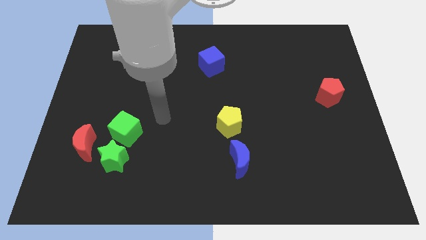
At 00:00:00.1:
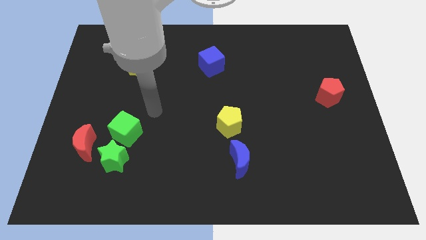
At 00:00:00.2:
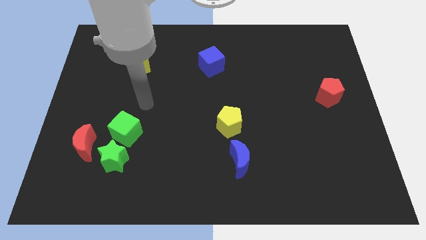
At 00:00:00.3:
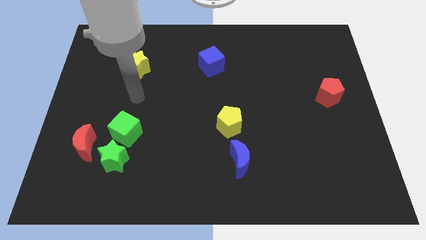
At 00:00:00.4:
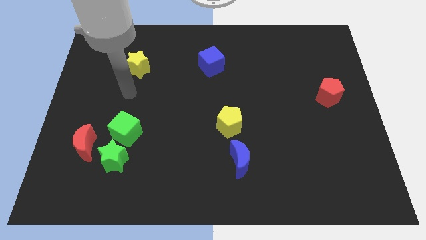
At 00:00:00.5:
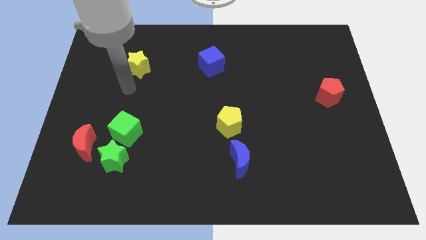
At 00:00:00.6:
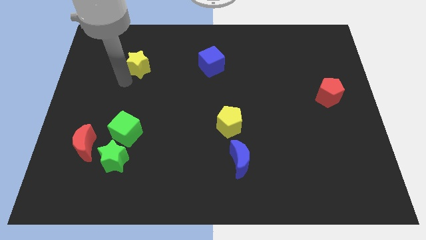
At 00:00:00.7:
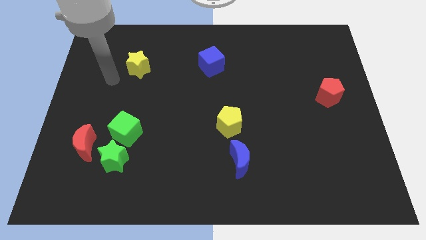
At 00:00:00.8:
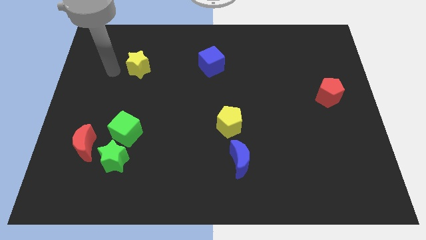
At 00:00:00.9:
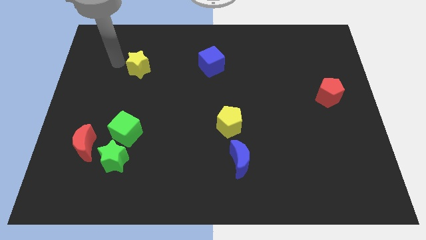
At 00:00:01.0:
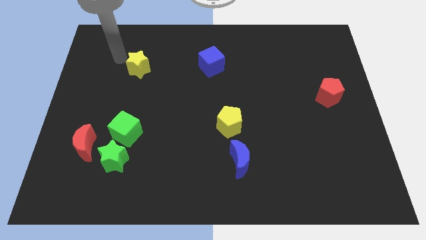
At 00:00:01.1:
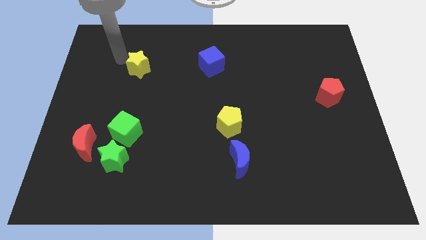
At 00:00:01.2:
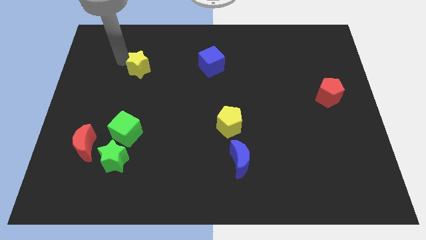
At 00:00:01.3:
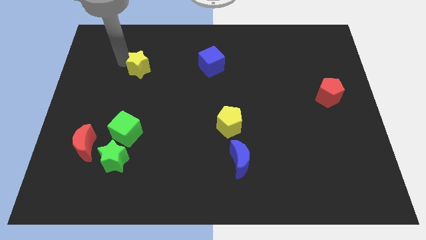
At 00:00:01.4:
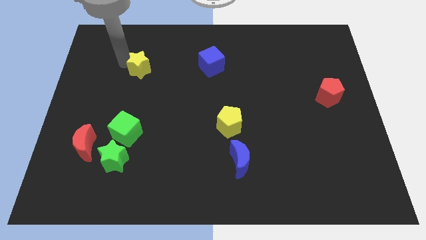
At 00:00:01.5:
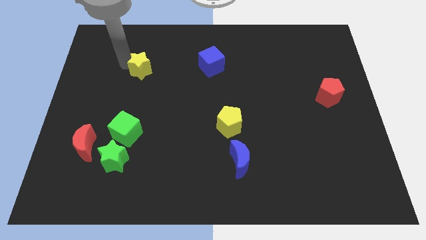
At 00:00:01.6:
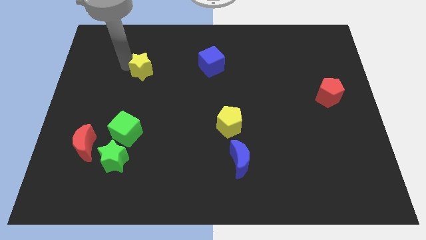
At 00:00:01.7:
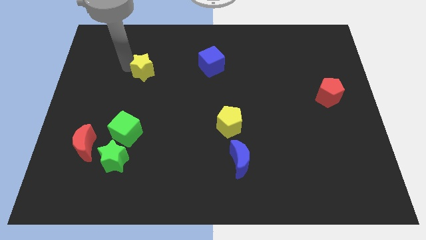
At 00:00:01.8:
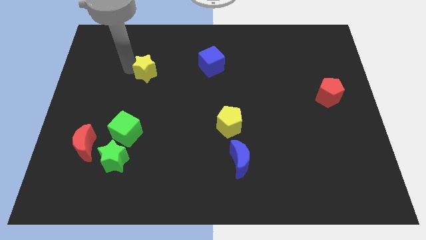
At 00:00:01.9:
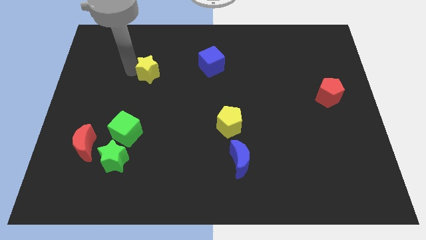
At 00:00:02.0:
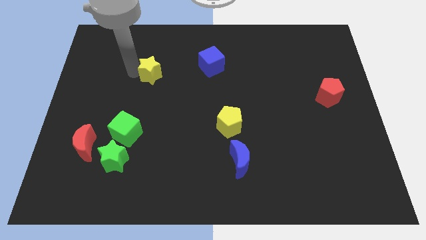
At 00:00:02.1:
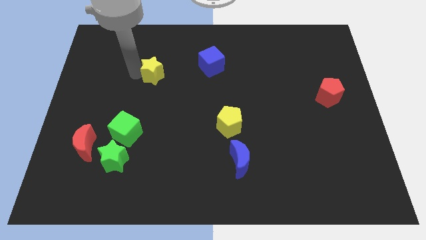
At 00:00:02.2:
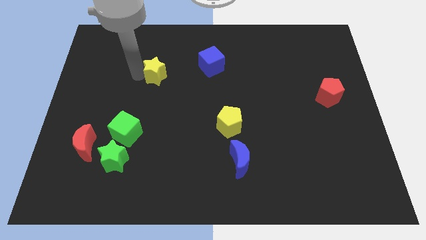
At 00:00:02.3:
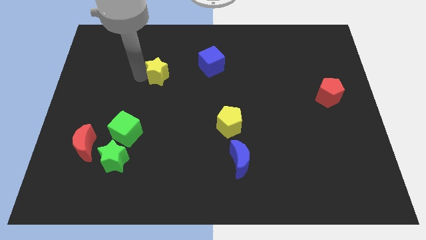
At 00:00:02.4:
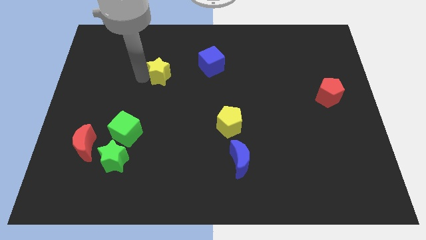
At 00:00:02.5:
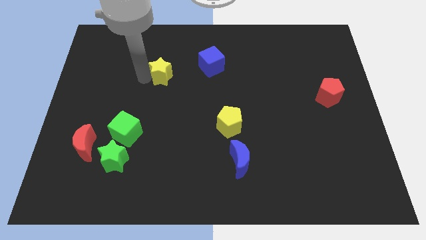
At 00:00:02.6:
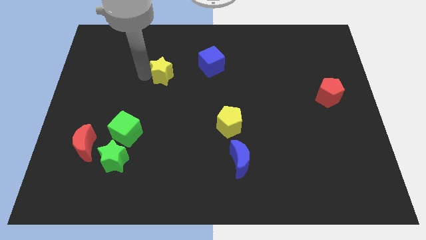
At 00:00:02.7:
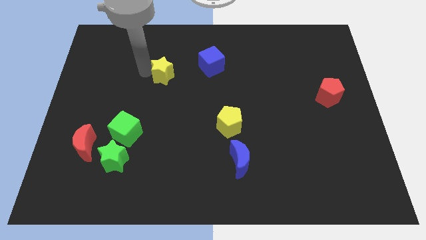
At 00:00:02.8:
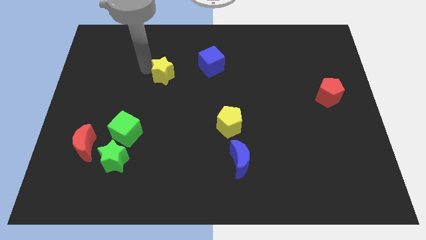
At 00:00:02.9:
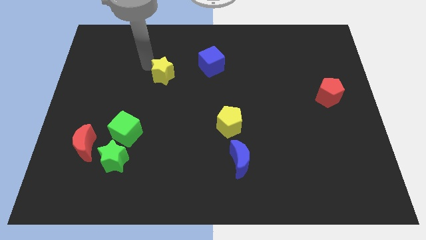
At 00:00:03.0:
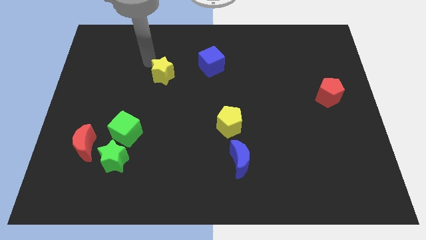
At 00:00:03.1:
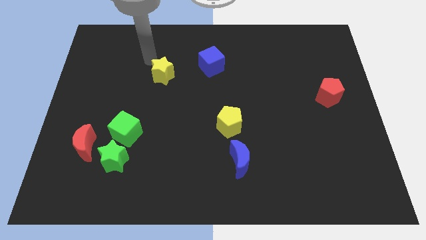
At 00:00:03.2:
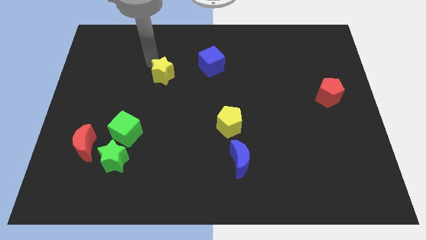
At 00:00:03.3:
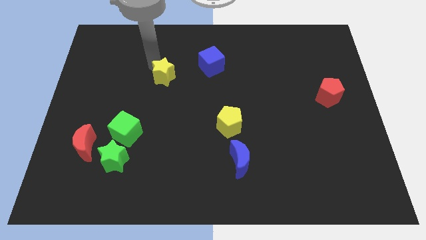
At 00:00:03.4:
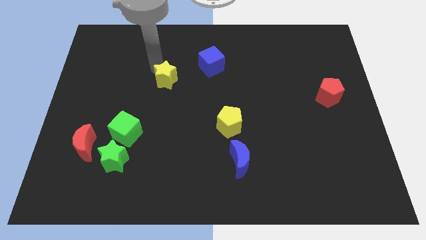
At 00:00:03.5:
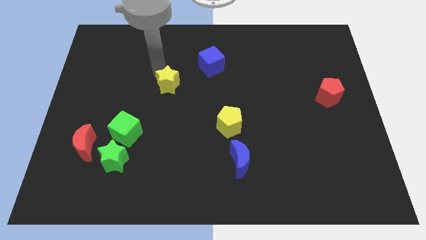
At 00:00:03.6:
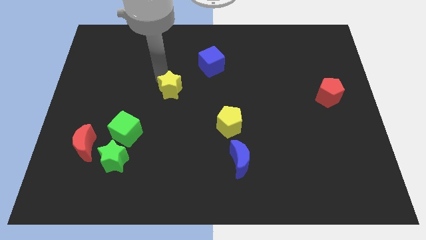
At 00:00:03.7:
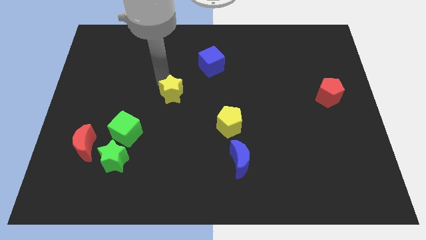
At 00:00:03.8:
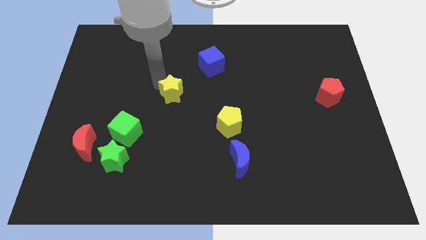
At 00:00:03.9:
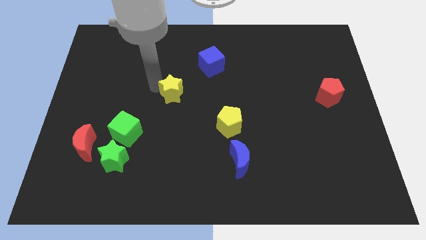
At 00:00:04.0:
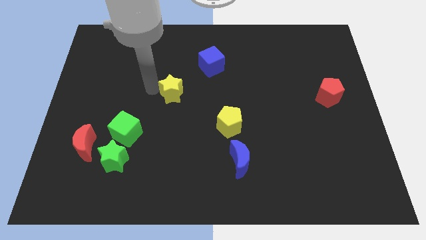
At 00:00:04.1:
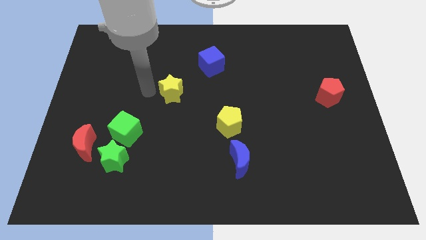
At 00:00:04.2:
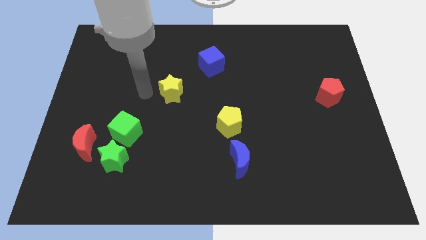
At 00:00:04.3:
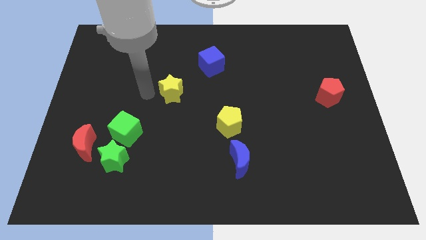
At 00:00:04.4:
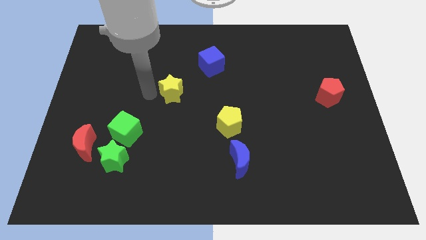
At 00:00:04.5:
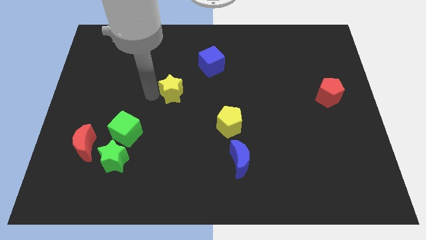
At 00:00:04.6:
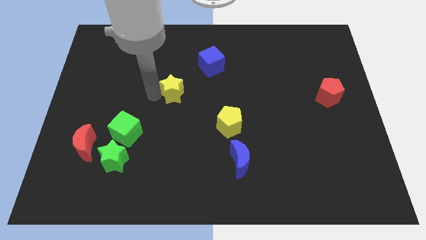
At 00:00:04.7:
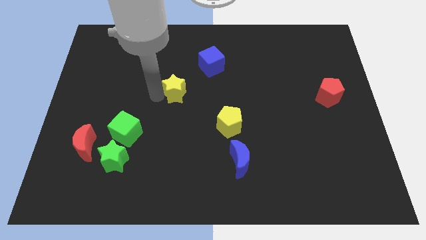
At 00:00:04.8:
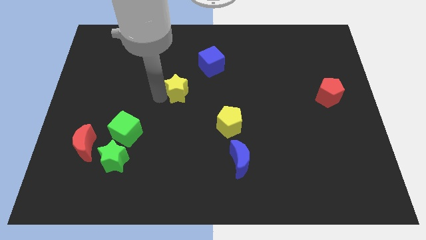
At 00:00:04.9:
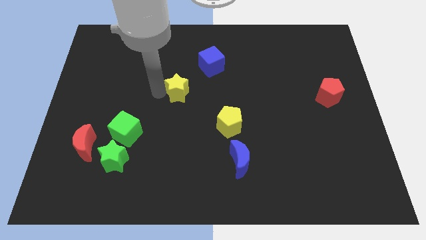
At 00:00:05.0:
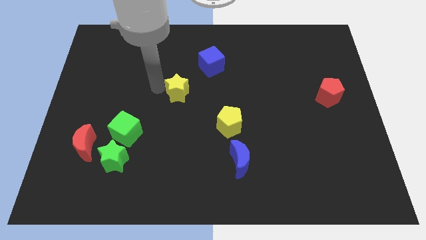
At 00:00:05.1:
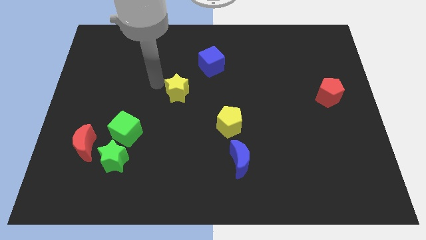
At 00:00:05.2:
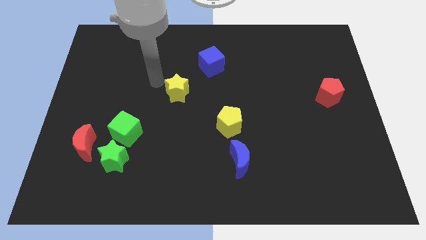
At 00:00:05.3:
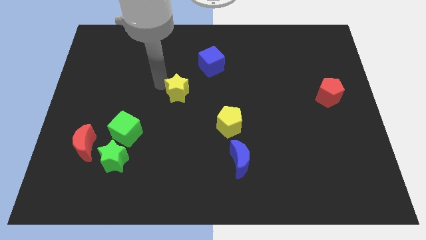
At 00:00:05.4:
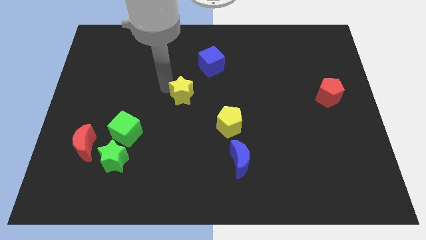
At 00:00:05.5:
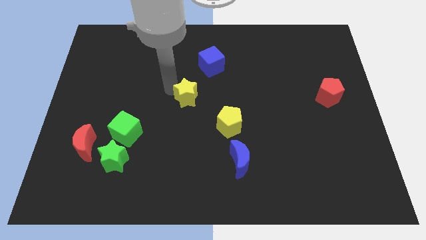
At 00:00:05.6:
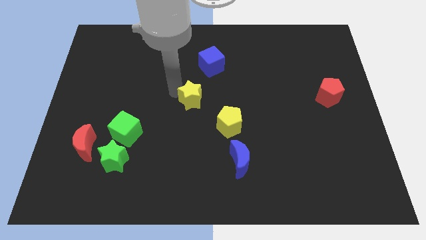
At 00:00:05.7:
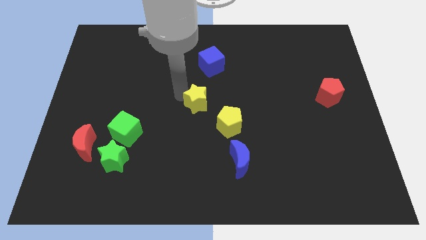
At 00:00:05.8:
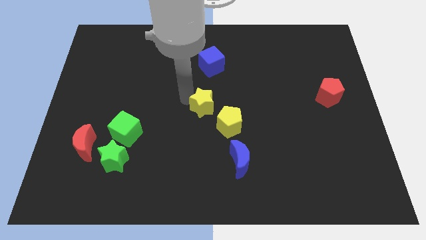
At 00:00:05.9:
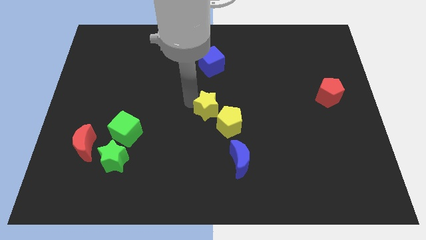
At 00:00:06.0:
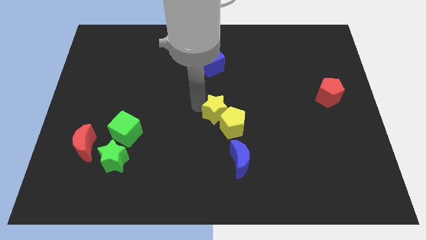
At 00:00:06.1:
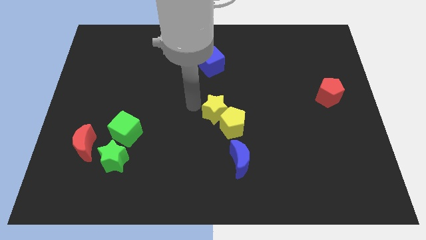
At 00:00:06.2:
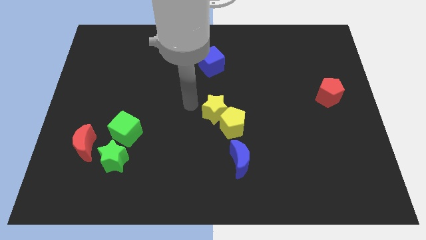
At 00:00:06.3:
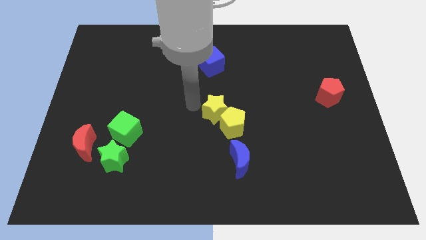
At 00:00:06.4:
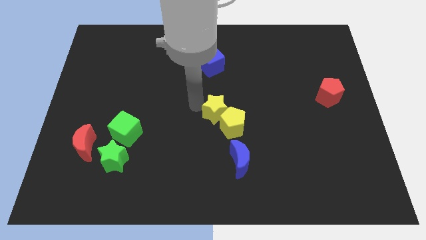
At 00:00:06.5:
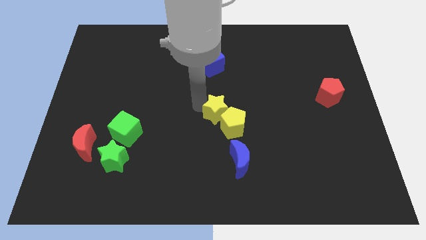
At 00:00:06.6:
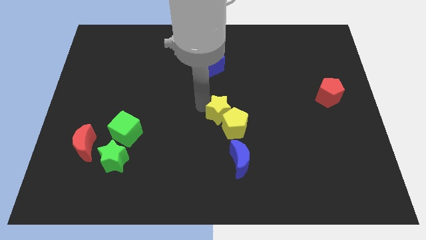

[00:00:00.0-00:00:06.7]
push the yellow star above the blue moon
